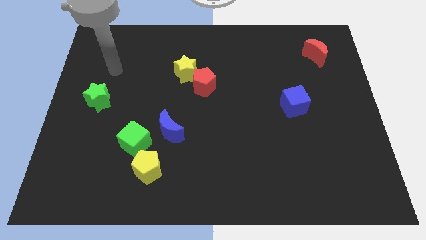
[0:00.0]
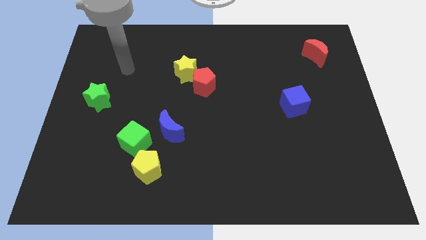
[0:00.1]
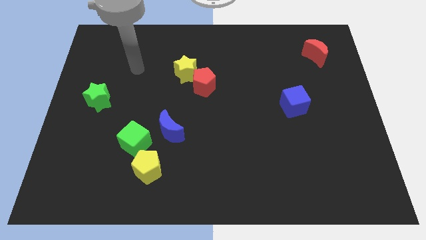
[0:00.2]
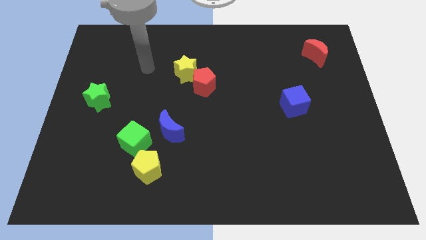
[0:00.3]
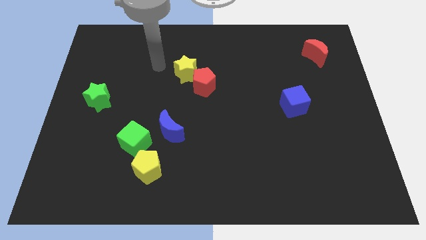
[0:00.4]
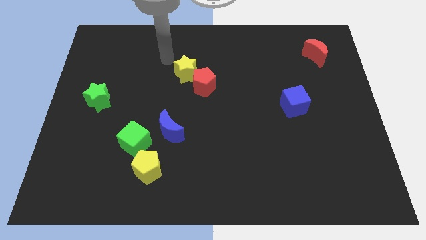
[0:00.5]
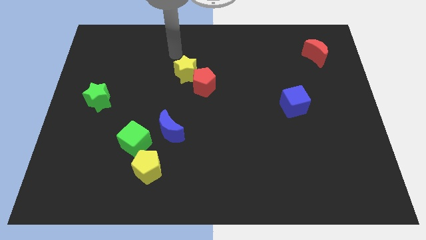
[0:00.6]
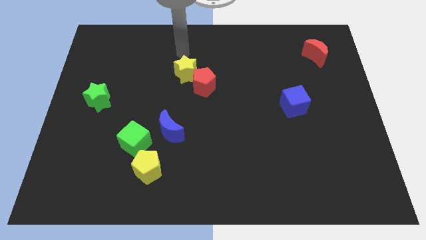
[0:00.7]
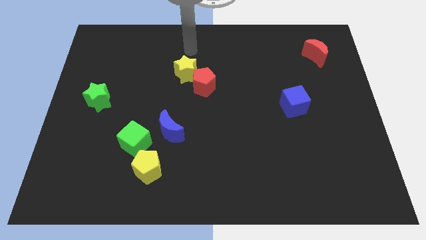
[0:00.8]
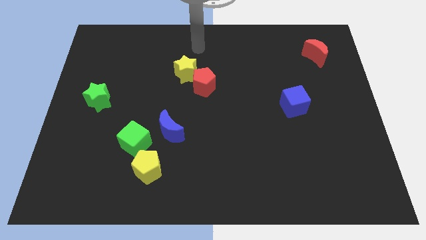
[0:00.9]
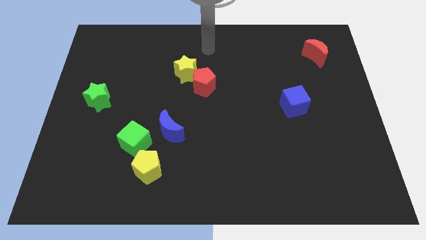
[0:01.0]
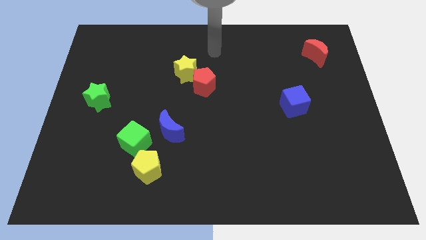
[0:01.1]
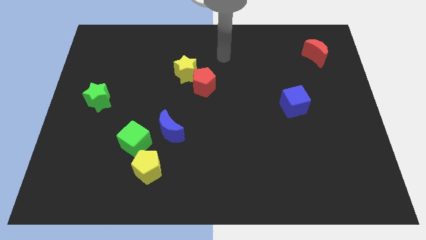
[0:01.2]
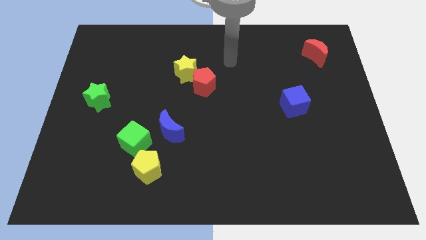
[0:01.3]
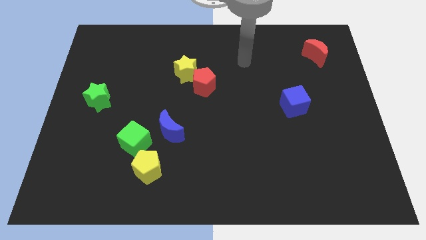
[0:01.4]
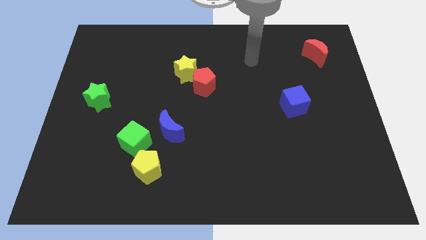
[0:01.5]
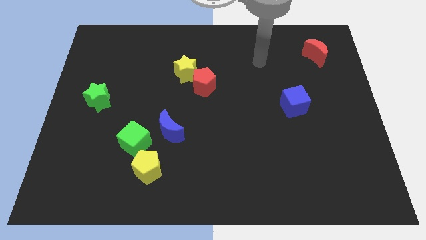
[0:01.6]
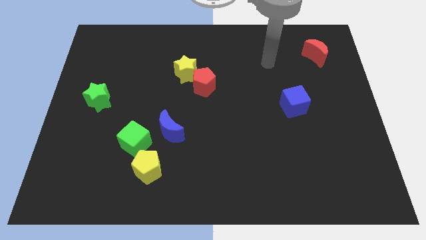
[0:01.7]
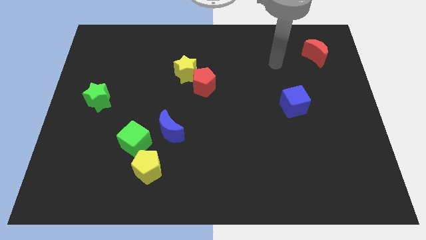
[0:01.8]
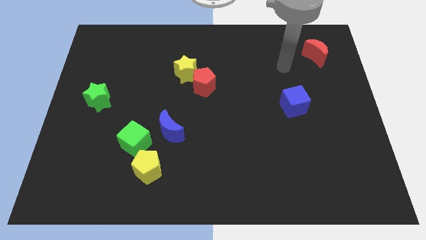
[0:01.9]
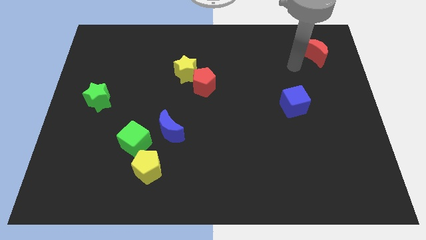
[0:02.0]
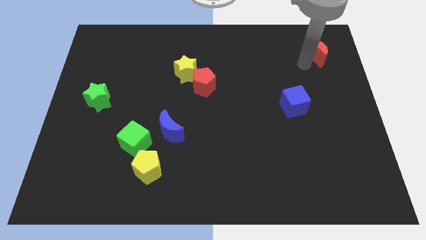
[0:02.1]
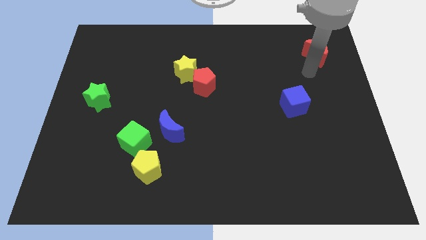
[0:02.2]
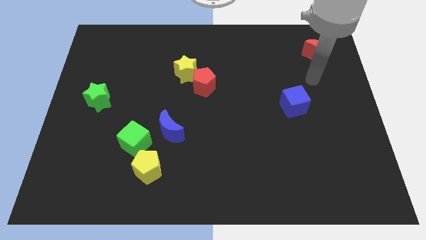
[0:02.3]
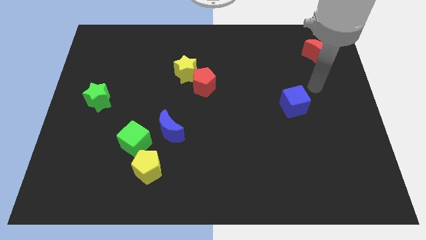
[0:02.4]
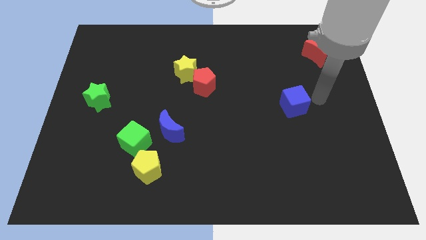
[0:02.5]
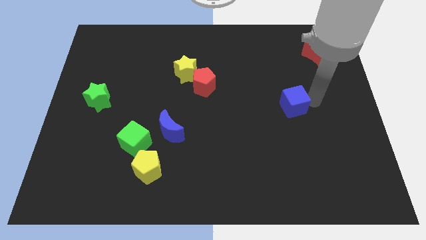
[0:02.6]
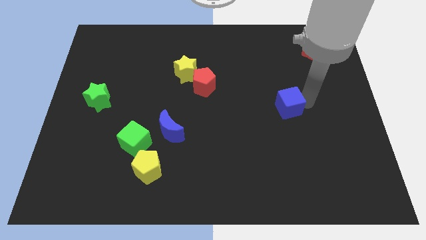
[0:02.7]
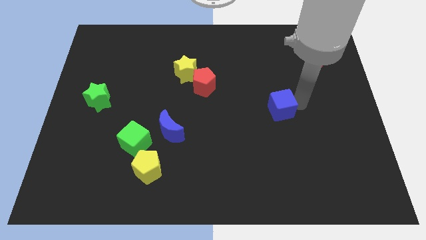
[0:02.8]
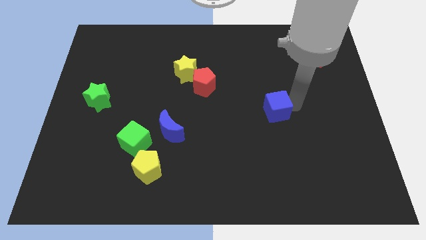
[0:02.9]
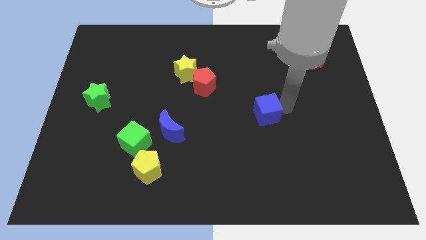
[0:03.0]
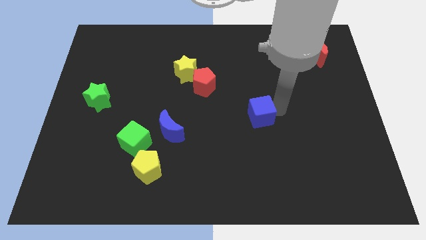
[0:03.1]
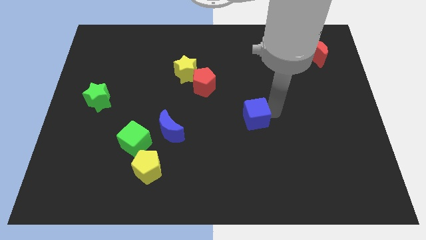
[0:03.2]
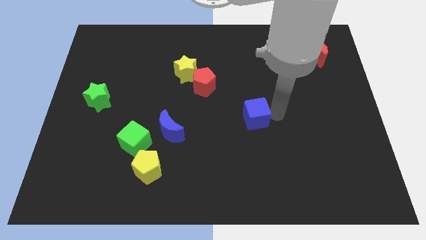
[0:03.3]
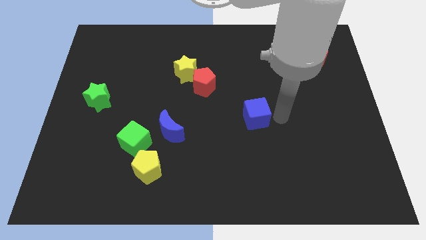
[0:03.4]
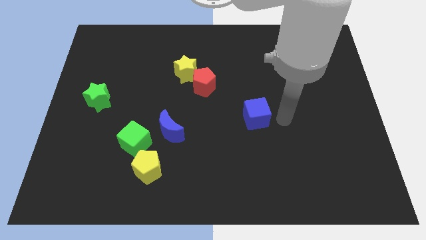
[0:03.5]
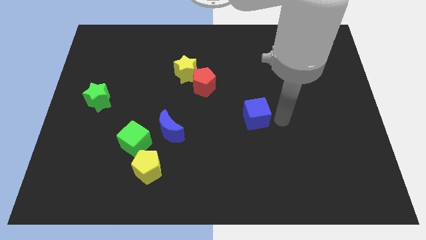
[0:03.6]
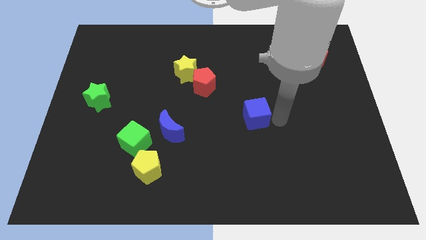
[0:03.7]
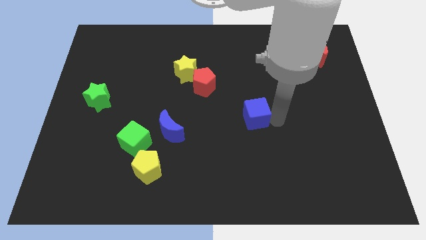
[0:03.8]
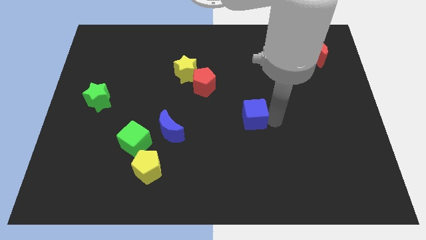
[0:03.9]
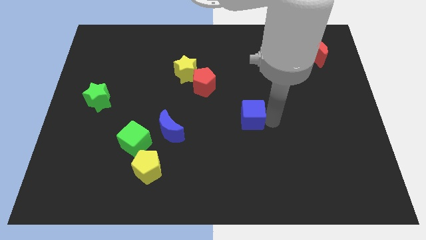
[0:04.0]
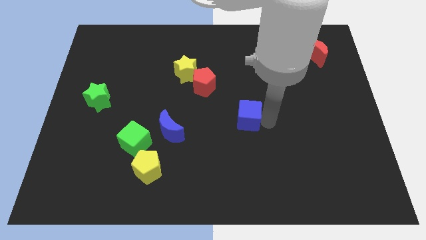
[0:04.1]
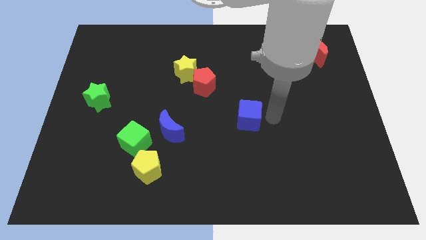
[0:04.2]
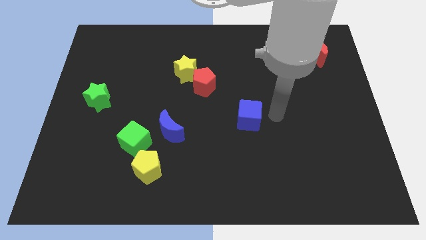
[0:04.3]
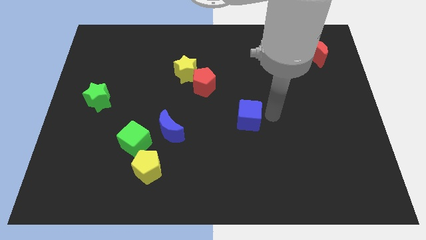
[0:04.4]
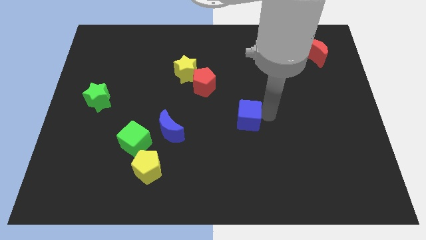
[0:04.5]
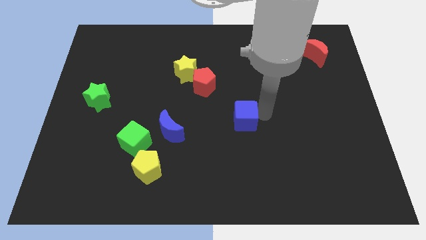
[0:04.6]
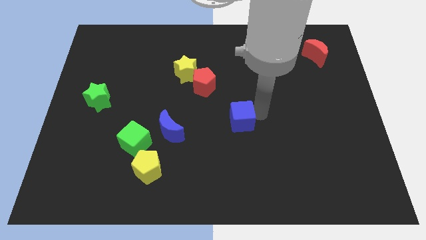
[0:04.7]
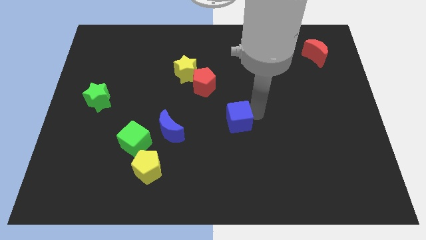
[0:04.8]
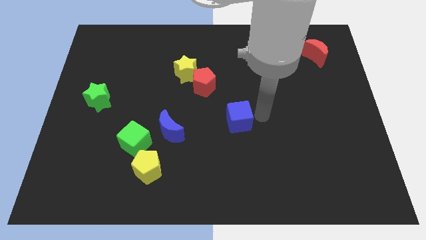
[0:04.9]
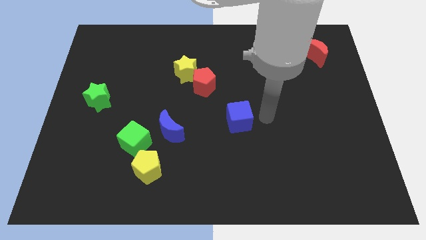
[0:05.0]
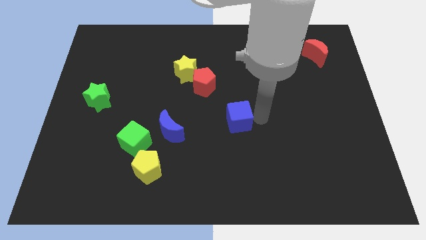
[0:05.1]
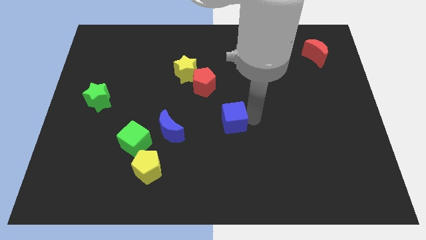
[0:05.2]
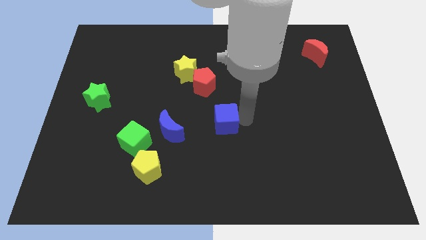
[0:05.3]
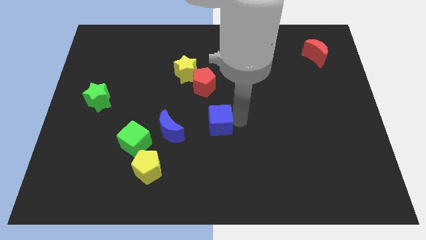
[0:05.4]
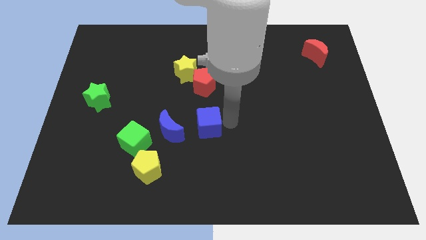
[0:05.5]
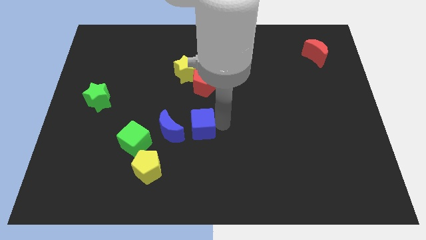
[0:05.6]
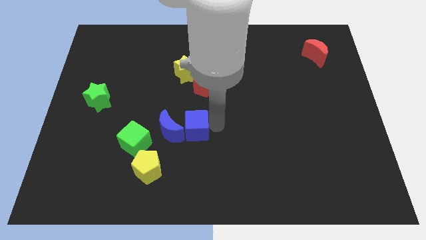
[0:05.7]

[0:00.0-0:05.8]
slide the blue cube close to the blue moon

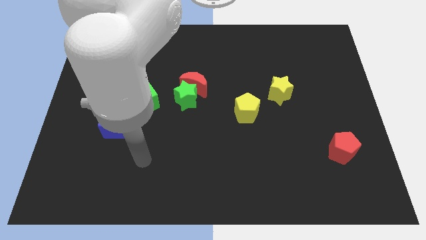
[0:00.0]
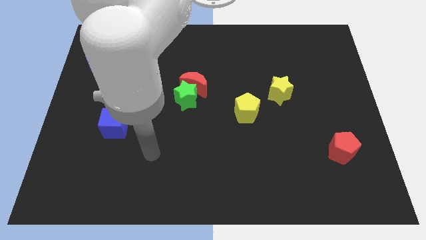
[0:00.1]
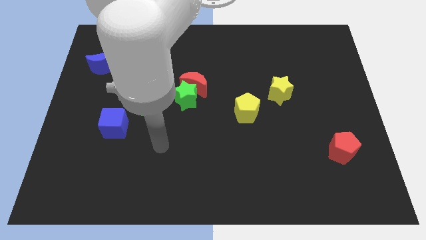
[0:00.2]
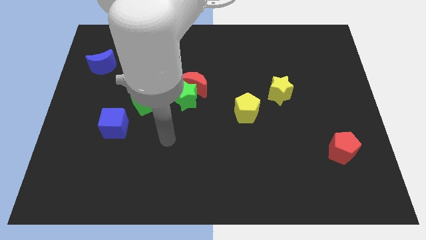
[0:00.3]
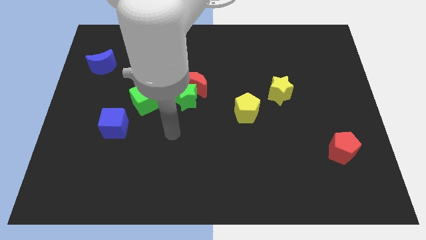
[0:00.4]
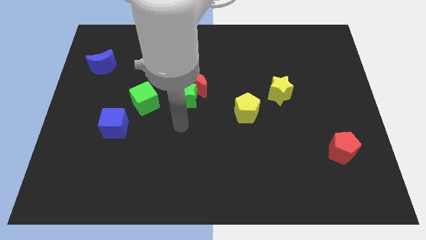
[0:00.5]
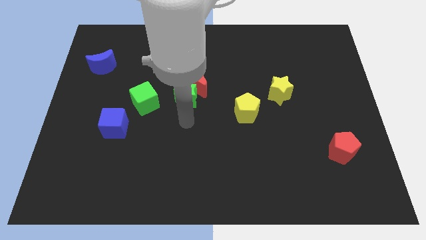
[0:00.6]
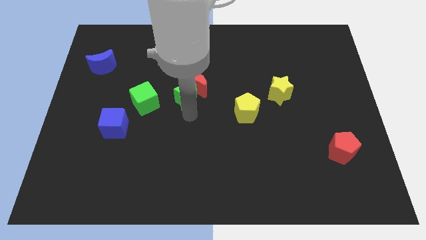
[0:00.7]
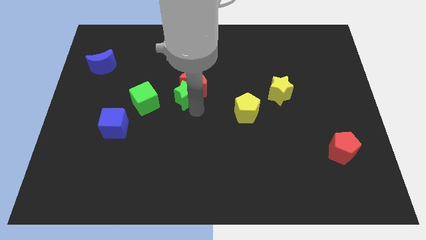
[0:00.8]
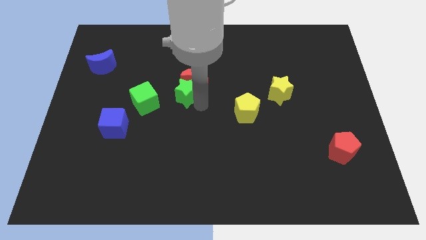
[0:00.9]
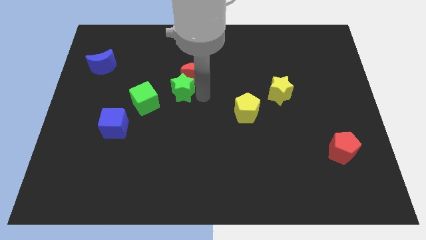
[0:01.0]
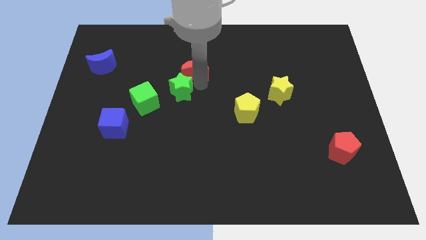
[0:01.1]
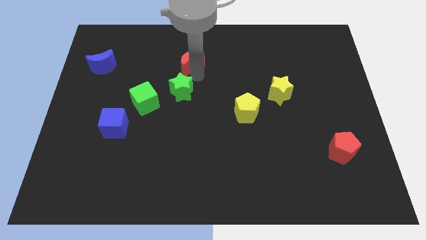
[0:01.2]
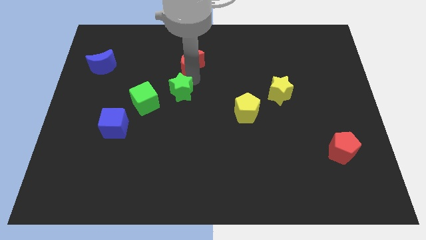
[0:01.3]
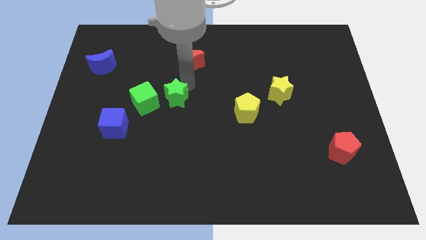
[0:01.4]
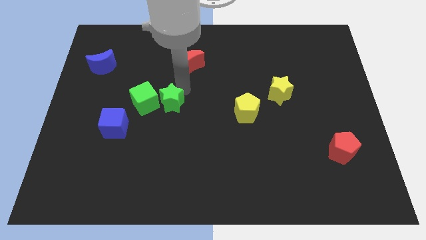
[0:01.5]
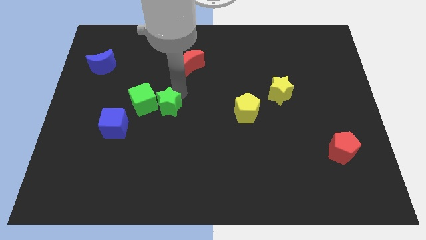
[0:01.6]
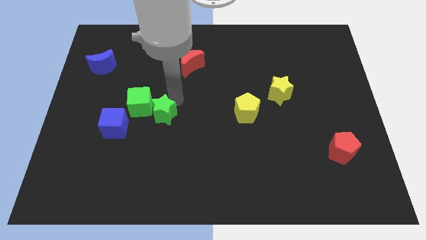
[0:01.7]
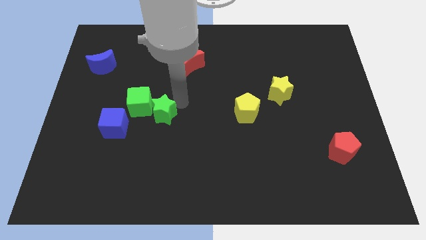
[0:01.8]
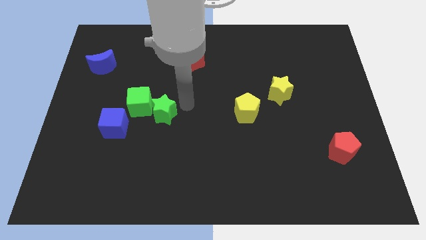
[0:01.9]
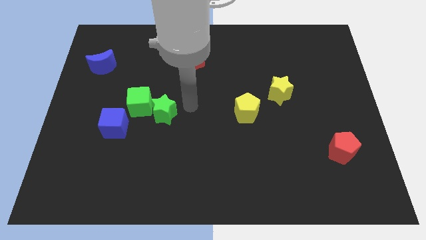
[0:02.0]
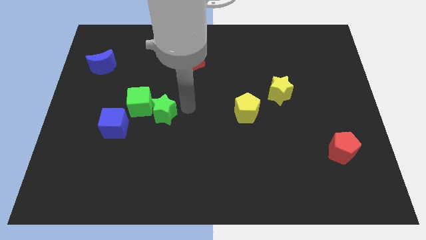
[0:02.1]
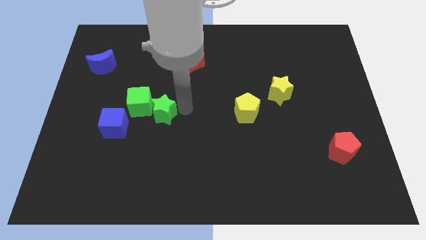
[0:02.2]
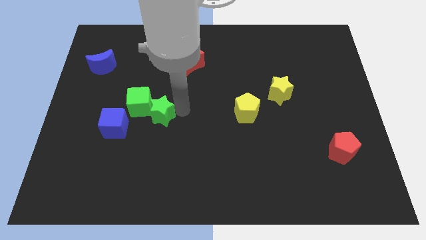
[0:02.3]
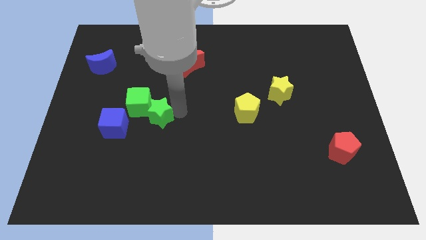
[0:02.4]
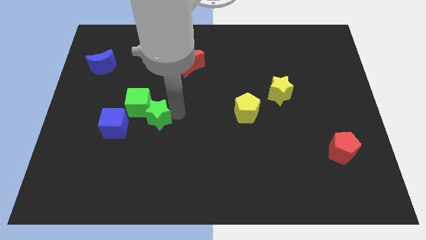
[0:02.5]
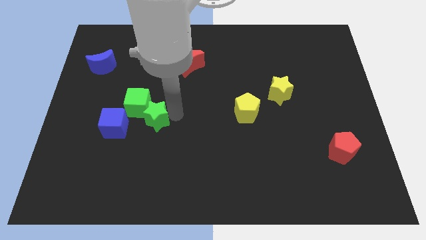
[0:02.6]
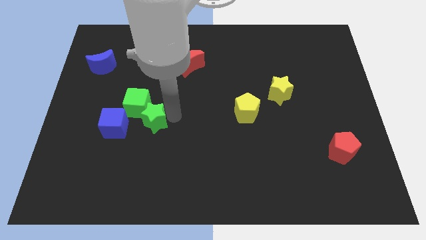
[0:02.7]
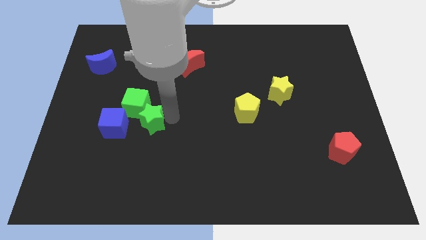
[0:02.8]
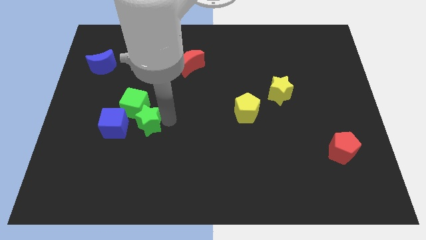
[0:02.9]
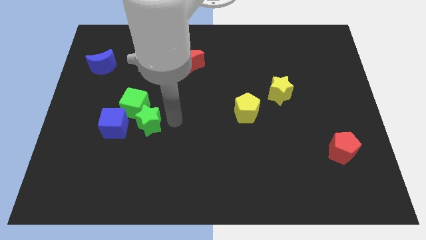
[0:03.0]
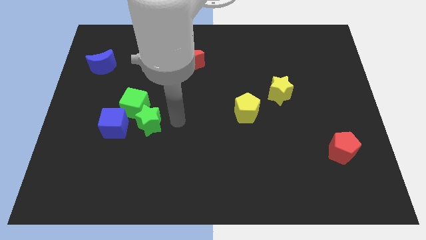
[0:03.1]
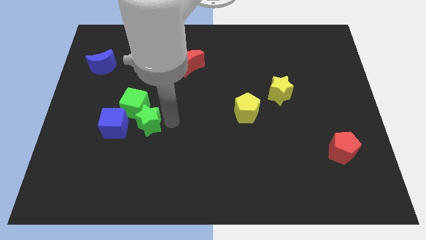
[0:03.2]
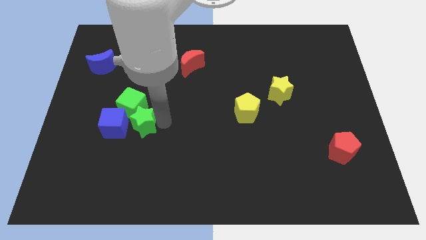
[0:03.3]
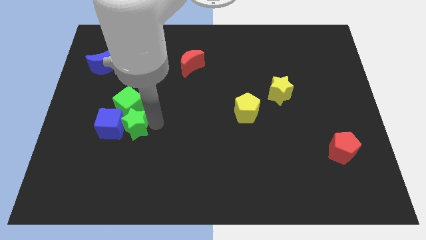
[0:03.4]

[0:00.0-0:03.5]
move the green star towards the blue cube
